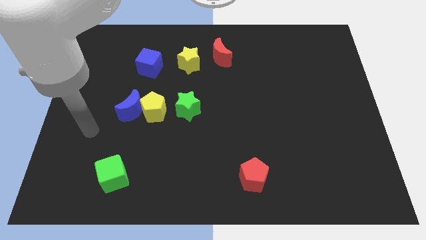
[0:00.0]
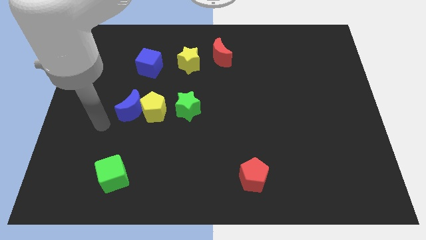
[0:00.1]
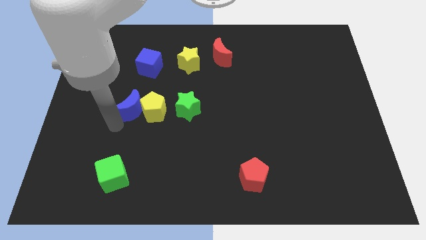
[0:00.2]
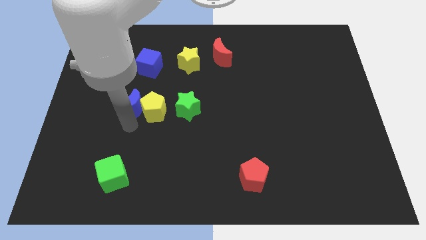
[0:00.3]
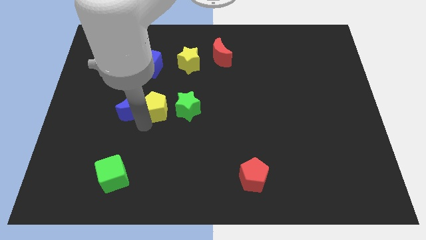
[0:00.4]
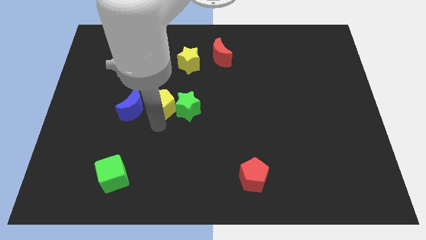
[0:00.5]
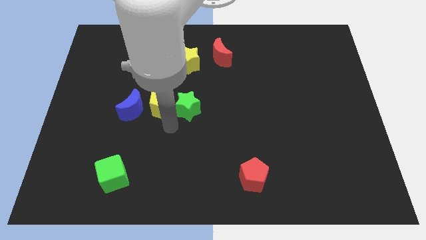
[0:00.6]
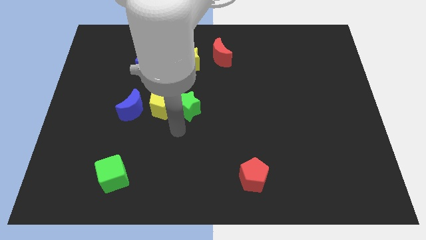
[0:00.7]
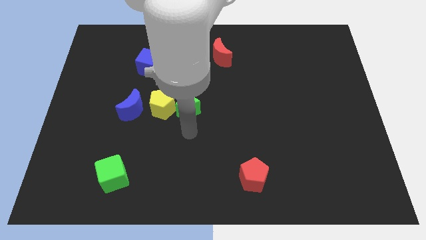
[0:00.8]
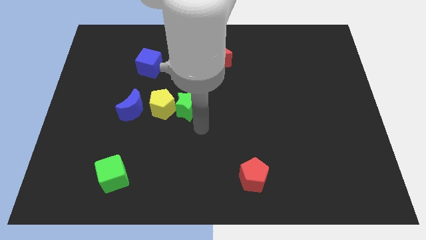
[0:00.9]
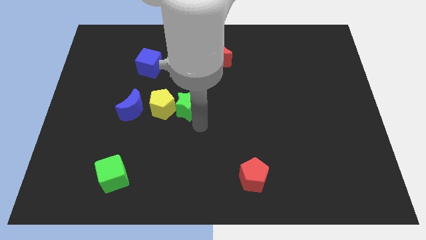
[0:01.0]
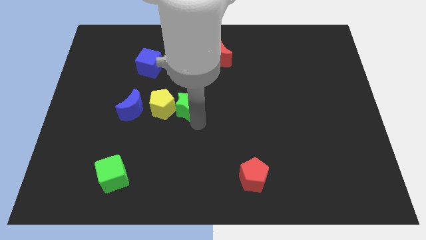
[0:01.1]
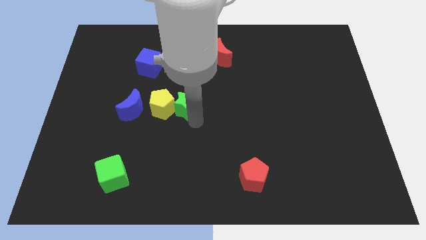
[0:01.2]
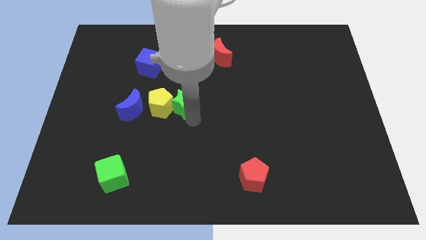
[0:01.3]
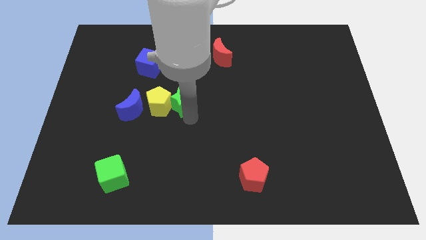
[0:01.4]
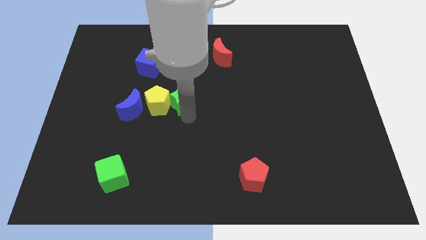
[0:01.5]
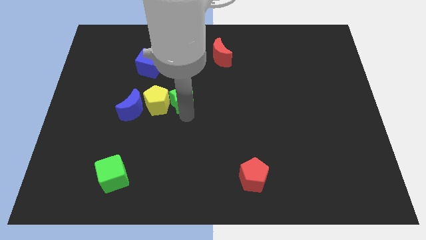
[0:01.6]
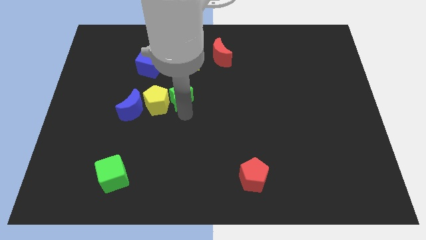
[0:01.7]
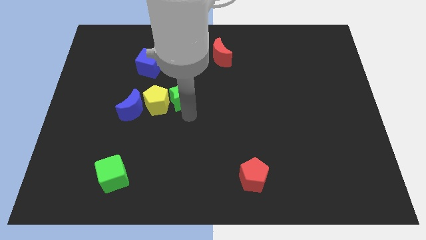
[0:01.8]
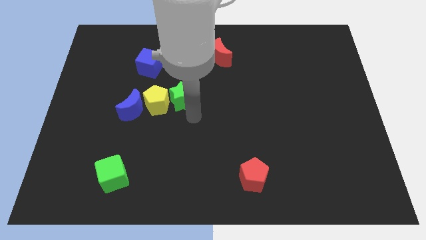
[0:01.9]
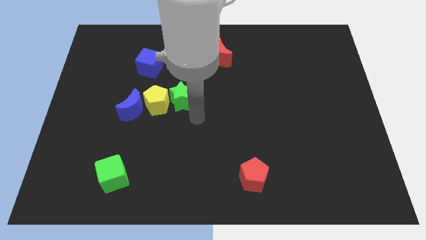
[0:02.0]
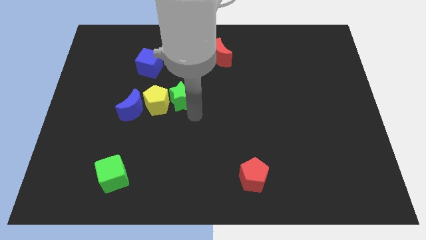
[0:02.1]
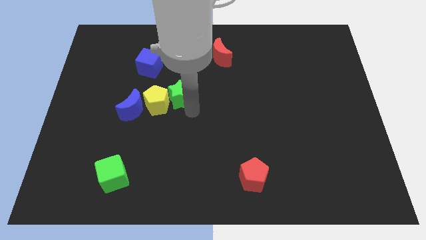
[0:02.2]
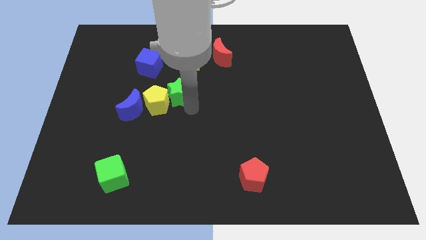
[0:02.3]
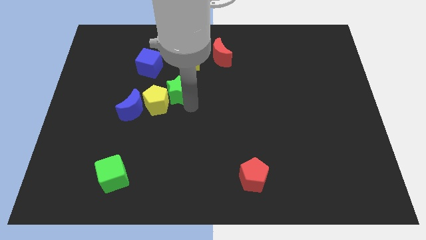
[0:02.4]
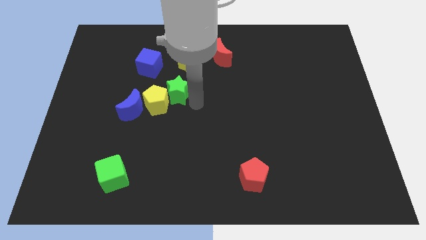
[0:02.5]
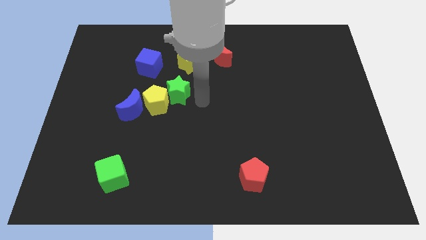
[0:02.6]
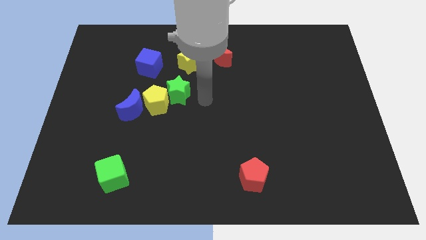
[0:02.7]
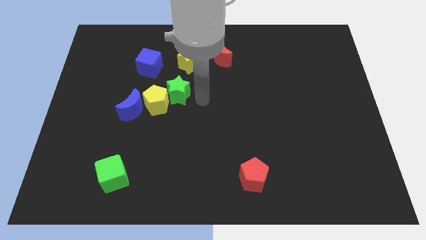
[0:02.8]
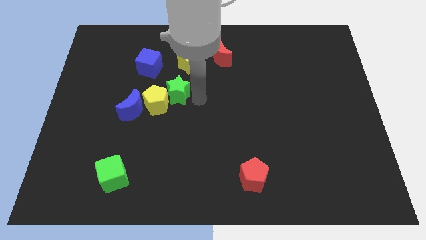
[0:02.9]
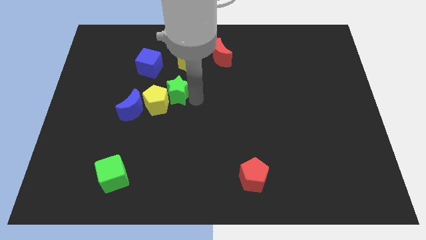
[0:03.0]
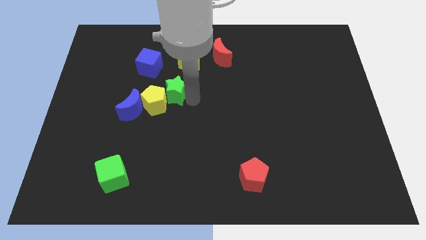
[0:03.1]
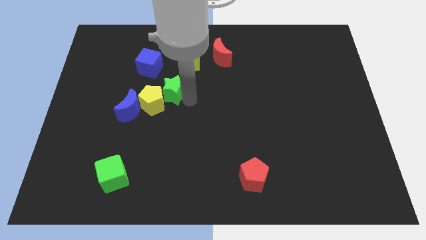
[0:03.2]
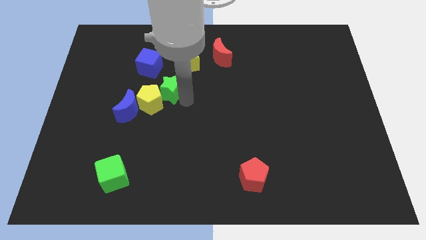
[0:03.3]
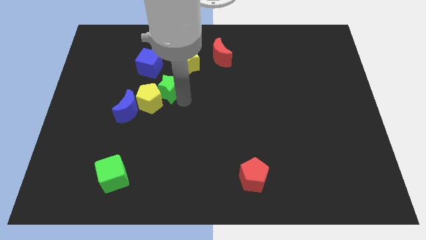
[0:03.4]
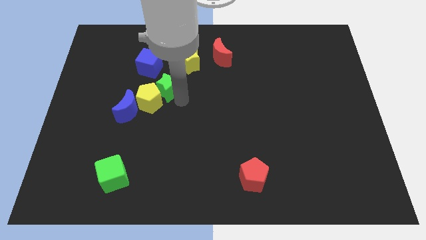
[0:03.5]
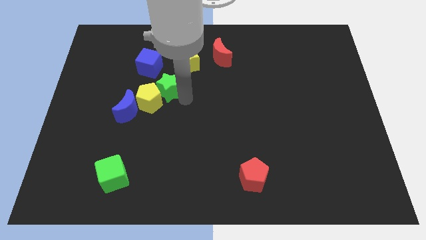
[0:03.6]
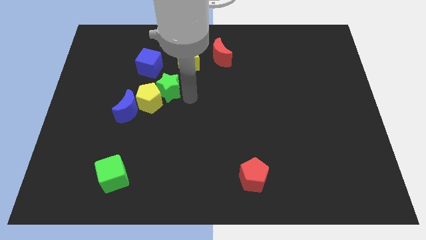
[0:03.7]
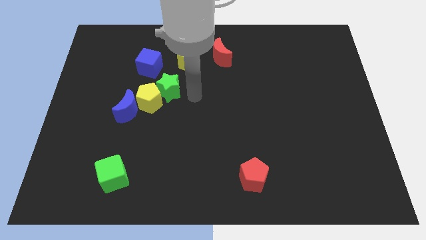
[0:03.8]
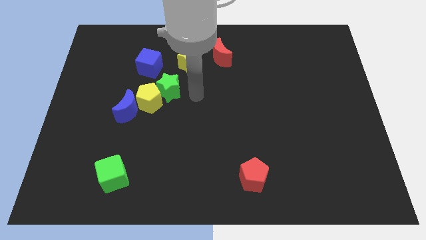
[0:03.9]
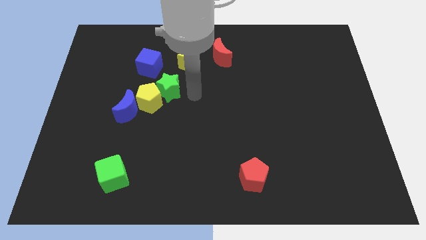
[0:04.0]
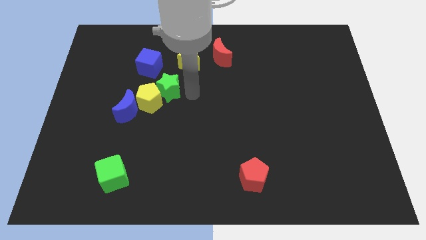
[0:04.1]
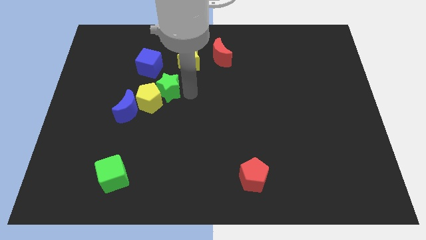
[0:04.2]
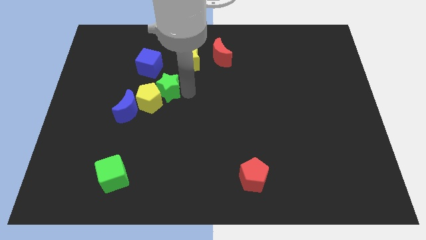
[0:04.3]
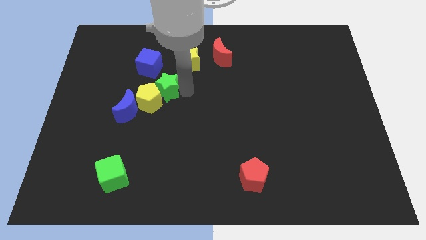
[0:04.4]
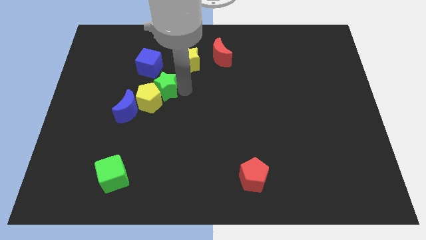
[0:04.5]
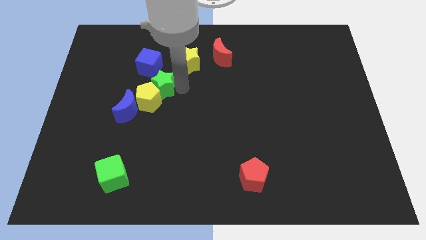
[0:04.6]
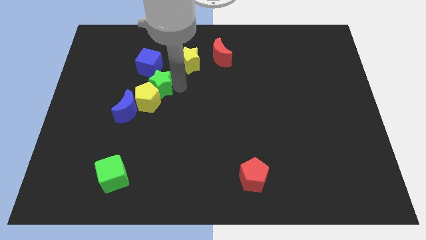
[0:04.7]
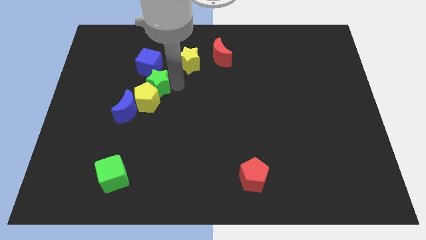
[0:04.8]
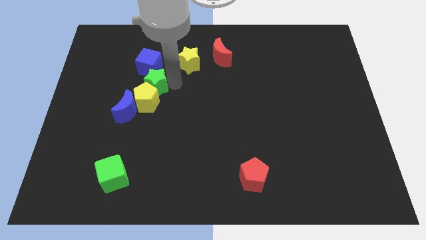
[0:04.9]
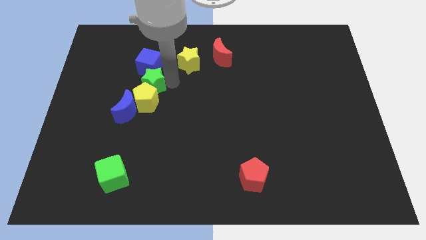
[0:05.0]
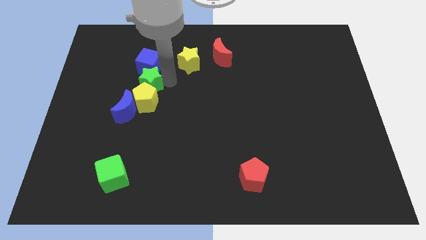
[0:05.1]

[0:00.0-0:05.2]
slightly move the green star to the left

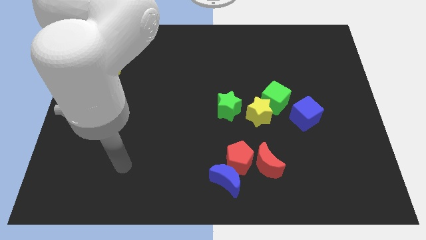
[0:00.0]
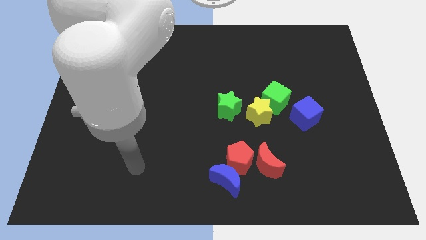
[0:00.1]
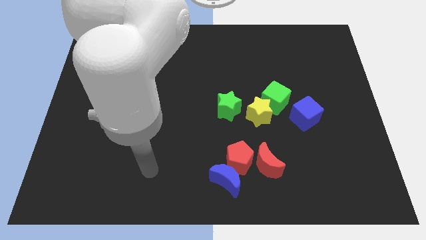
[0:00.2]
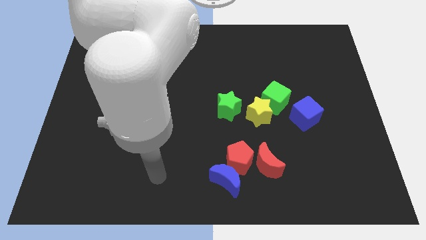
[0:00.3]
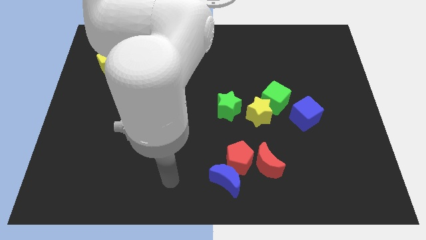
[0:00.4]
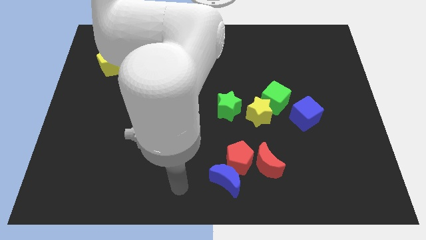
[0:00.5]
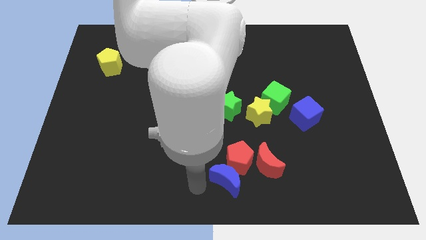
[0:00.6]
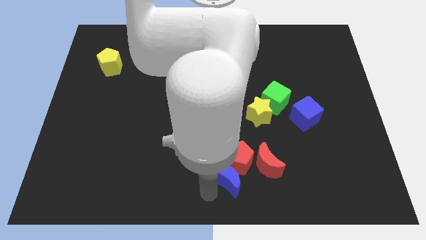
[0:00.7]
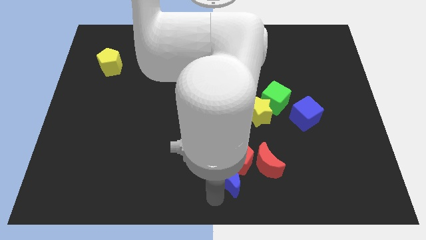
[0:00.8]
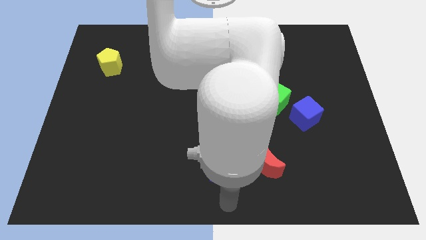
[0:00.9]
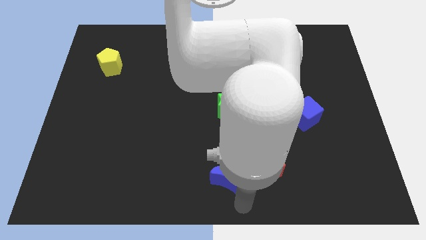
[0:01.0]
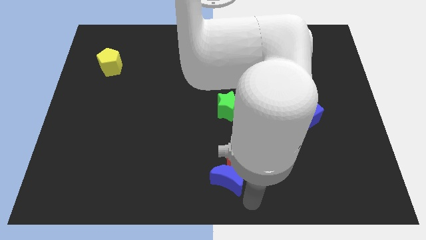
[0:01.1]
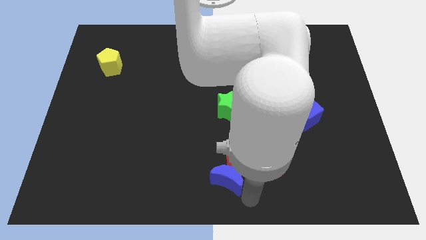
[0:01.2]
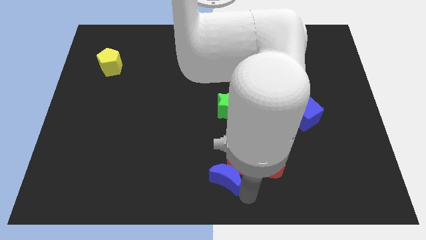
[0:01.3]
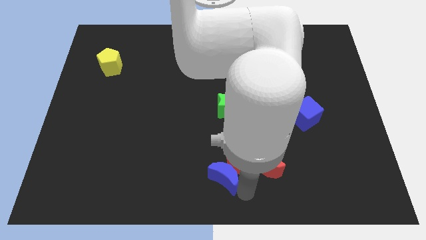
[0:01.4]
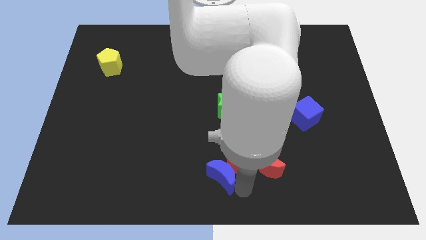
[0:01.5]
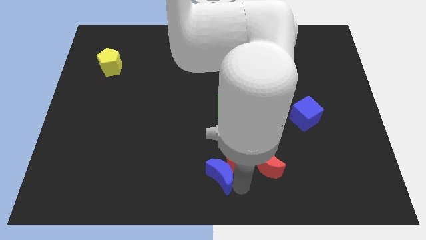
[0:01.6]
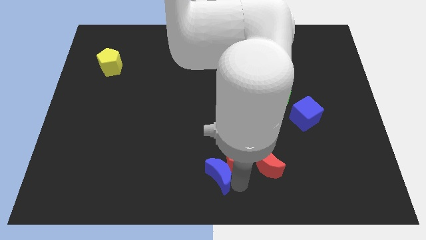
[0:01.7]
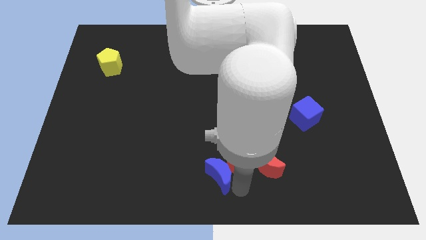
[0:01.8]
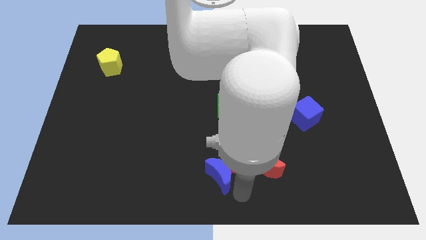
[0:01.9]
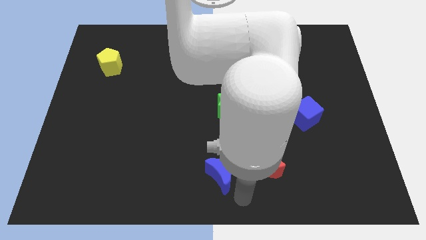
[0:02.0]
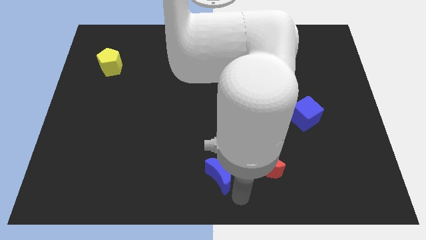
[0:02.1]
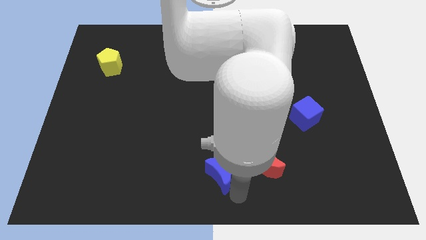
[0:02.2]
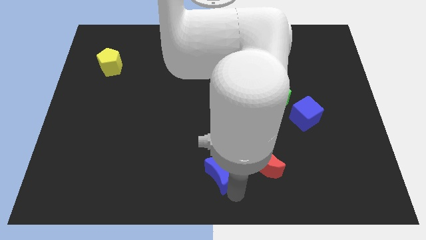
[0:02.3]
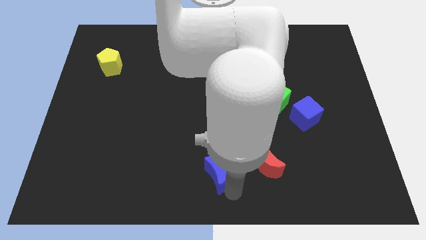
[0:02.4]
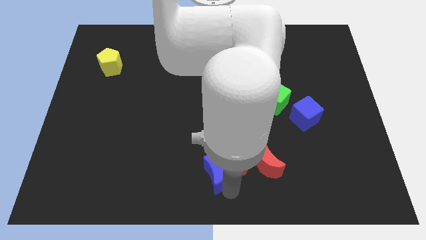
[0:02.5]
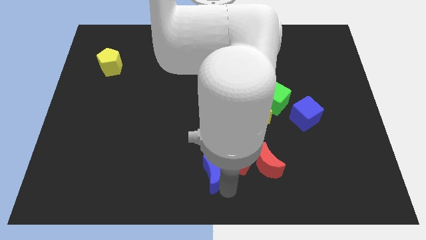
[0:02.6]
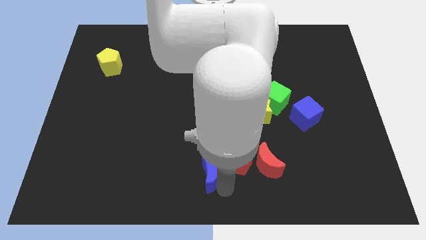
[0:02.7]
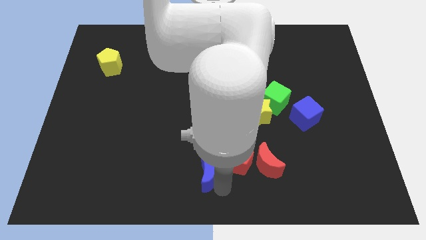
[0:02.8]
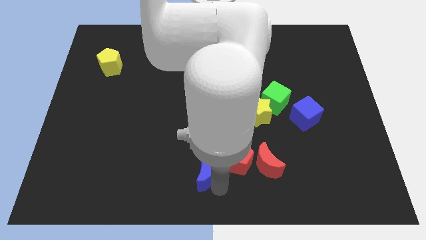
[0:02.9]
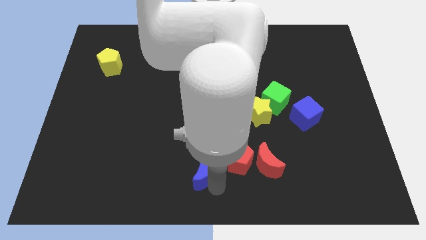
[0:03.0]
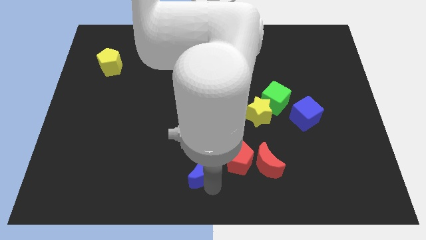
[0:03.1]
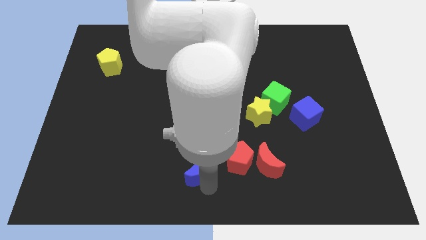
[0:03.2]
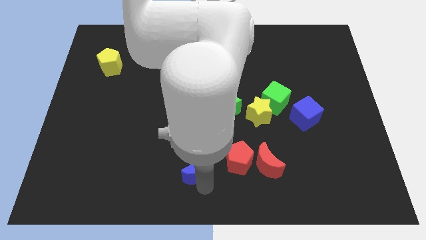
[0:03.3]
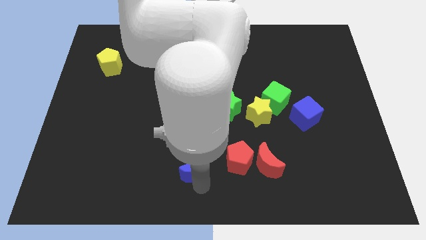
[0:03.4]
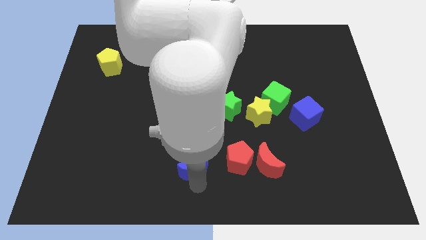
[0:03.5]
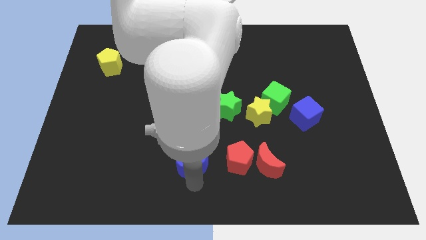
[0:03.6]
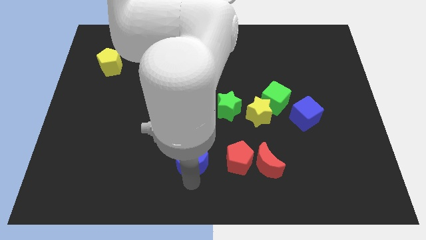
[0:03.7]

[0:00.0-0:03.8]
move the blue moon diagonally upwards and to the left somewhat
